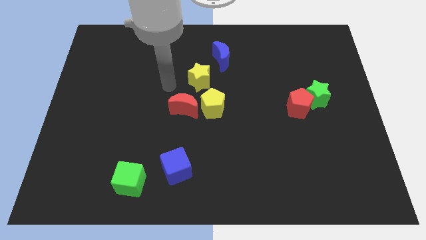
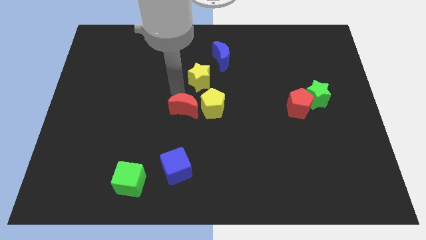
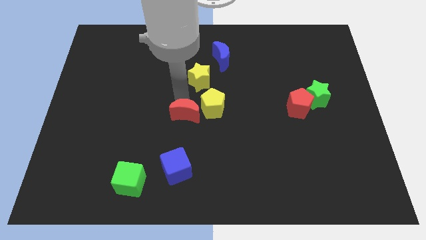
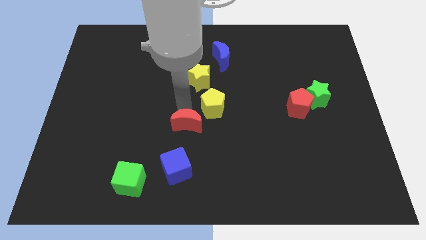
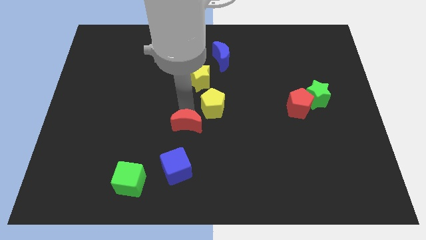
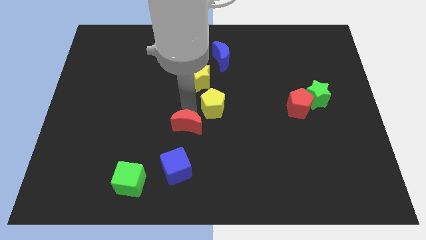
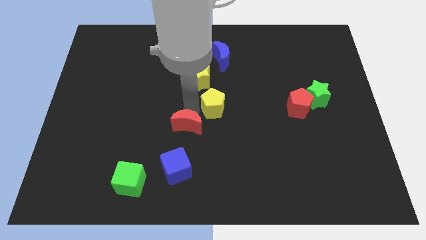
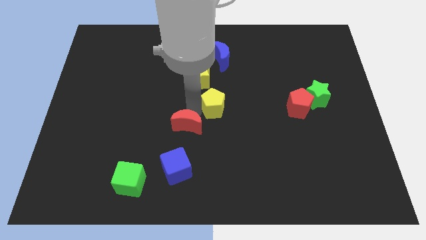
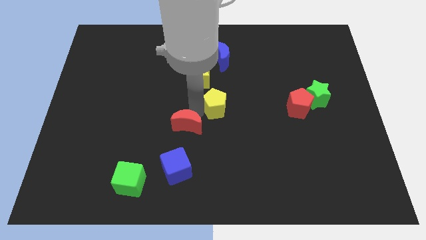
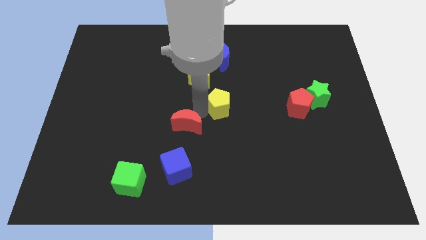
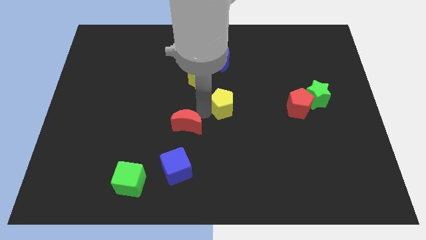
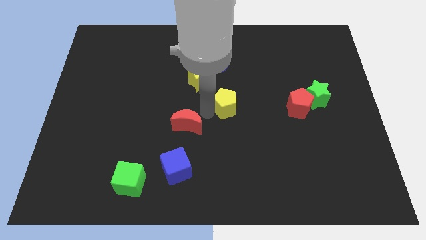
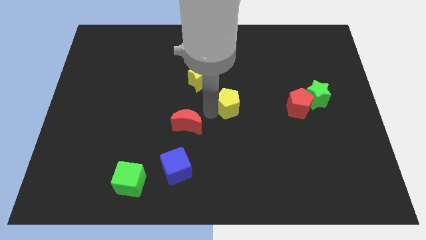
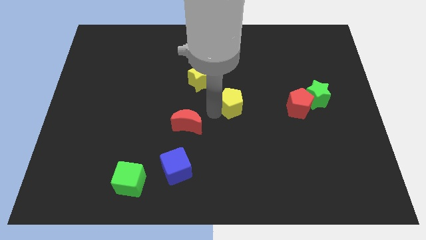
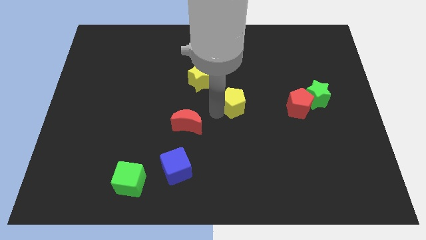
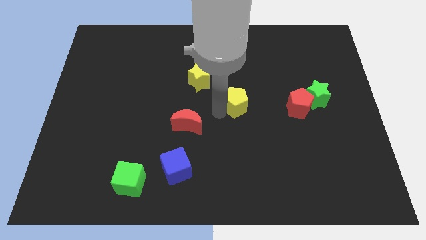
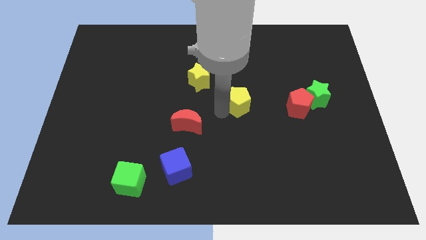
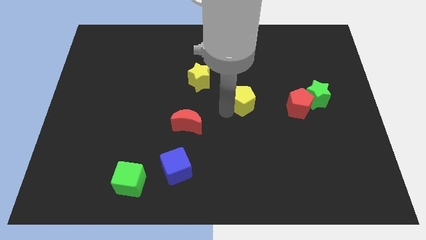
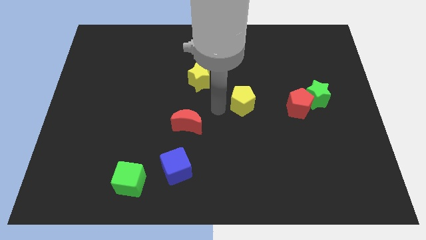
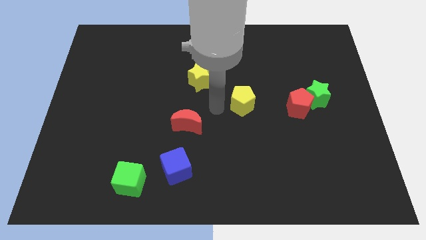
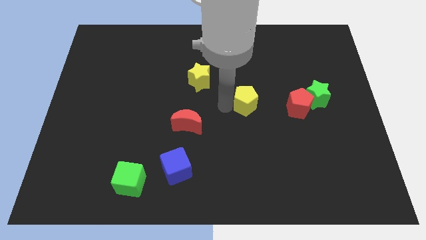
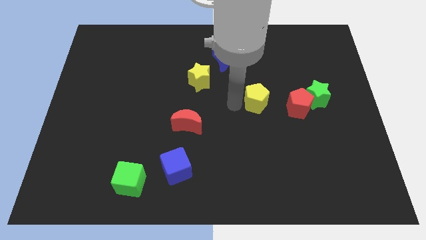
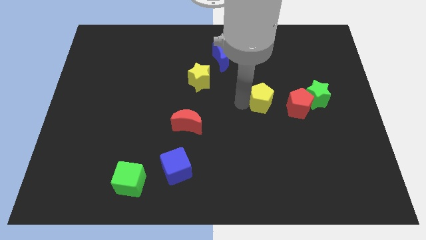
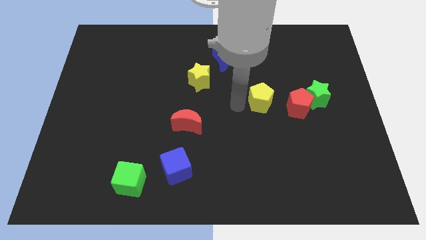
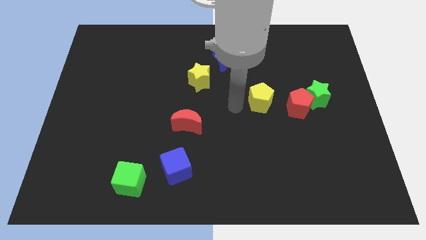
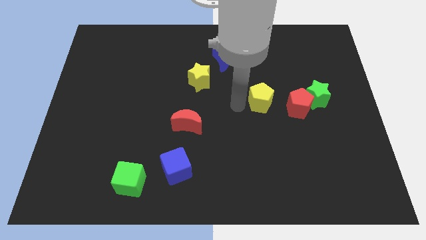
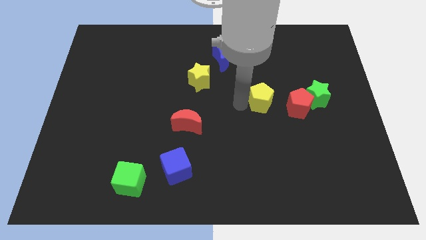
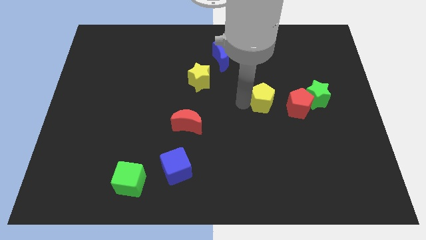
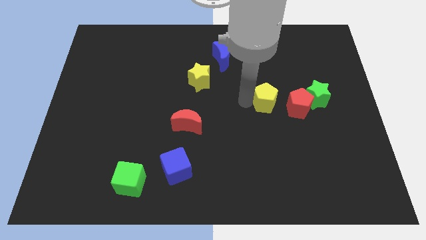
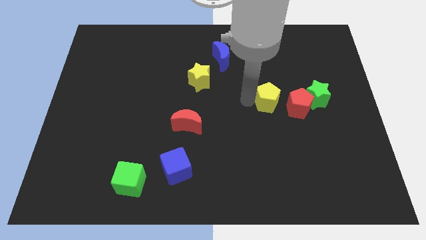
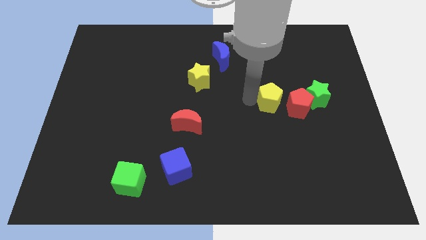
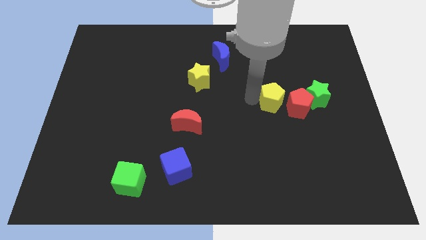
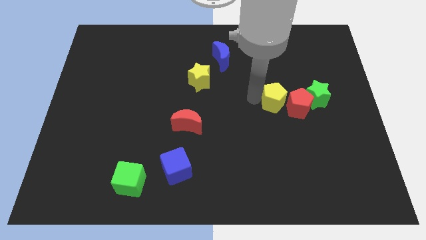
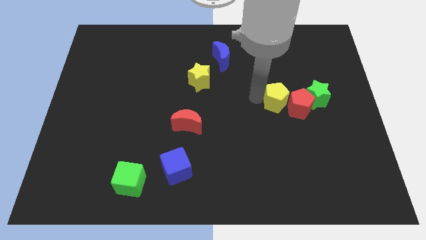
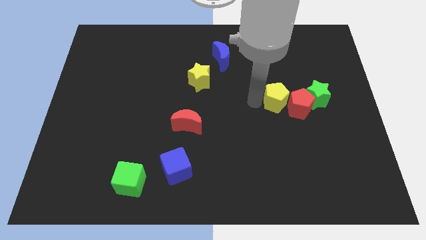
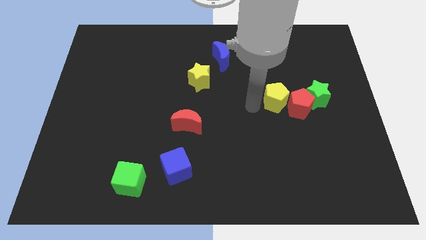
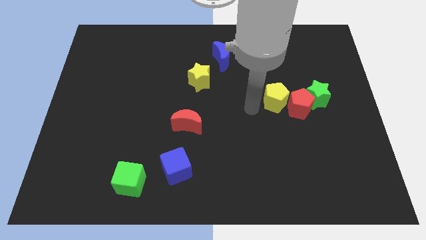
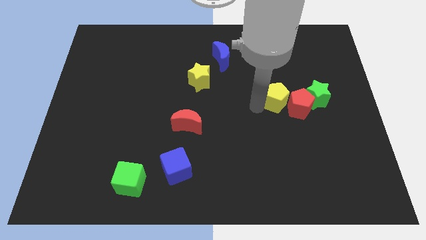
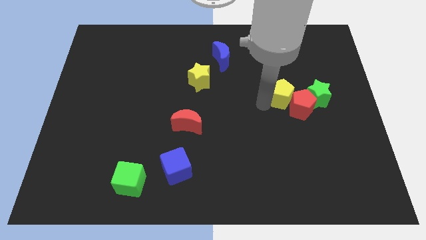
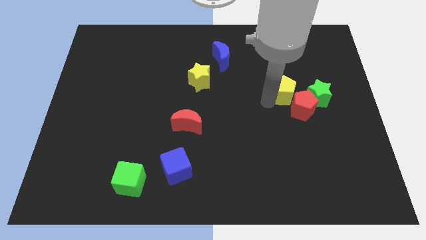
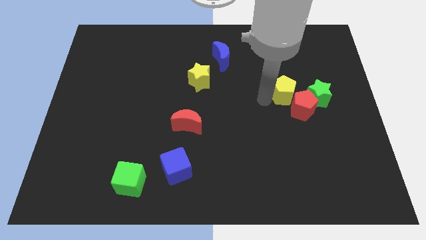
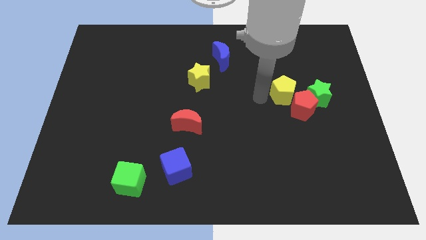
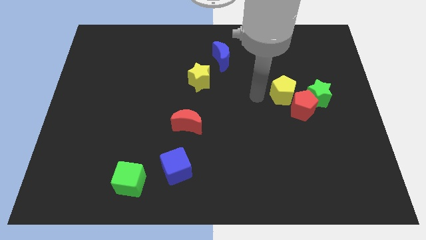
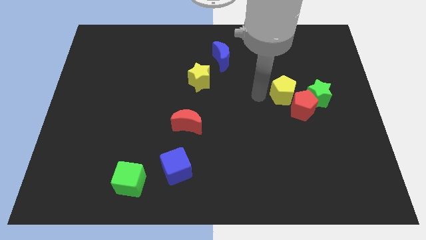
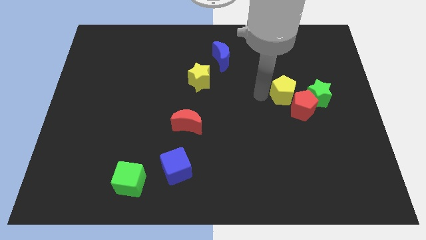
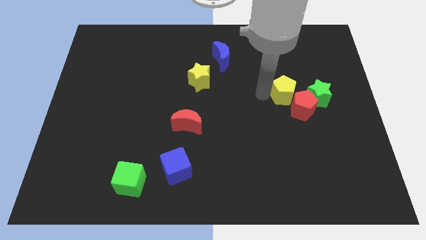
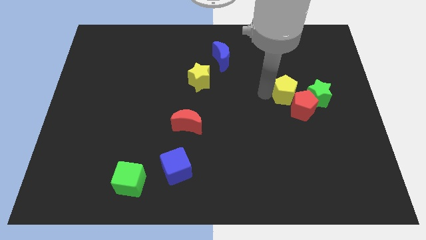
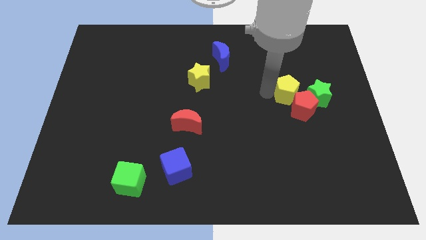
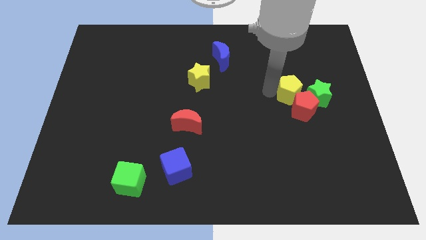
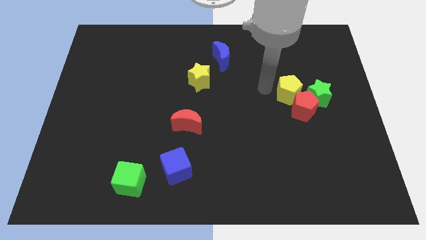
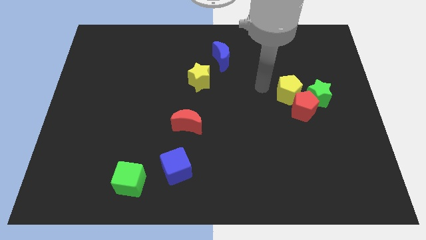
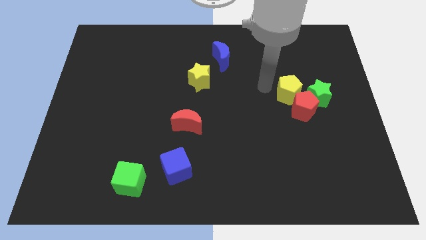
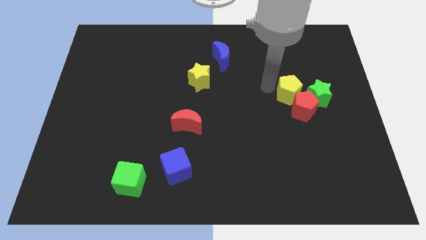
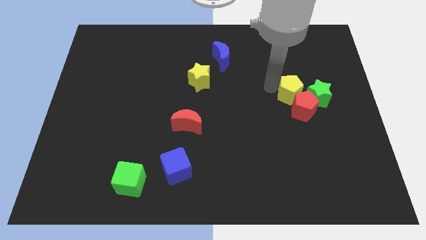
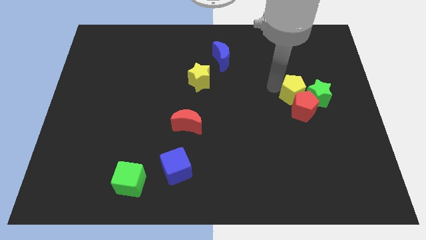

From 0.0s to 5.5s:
slide the yellow pentagon close to the green star
